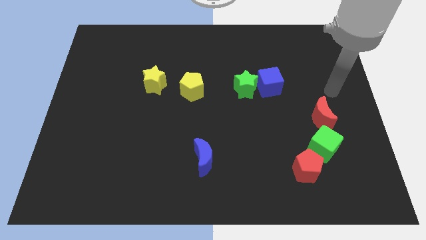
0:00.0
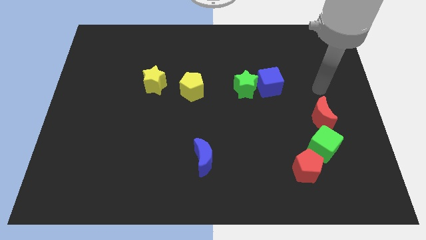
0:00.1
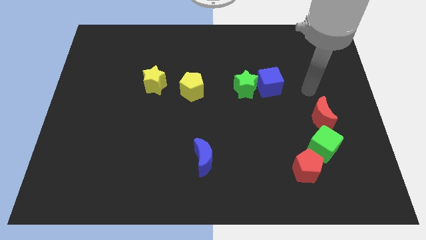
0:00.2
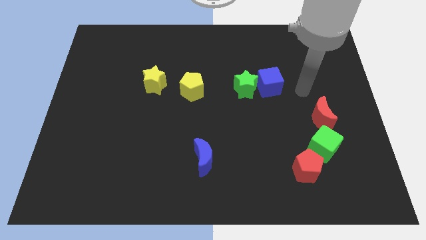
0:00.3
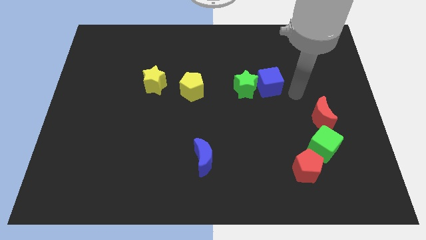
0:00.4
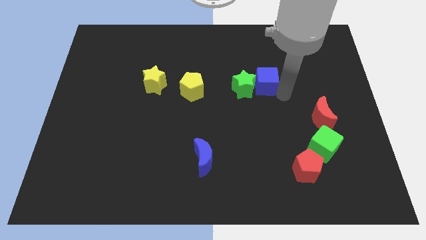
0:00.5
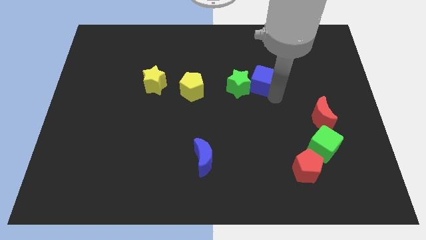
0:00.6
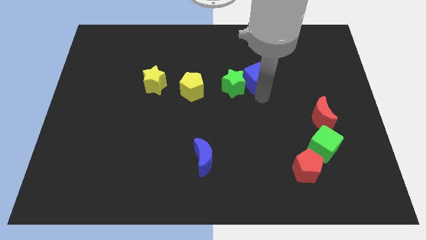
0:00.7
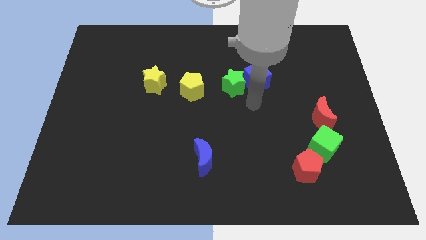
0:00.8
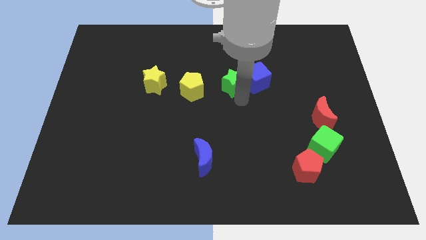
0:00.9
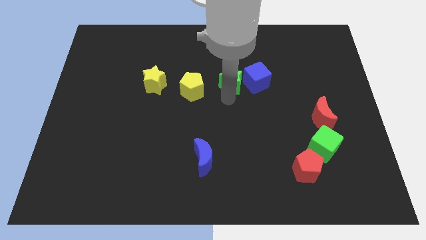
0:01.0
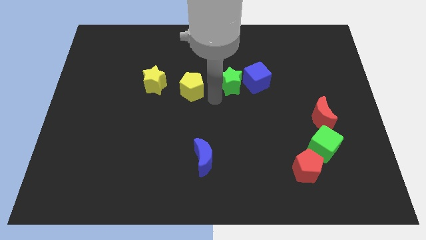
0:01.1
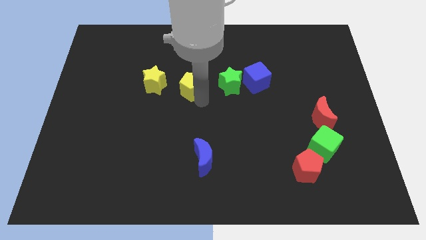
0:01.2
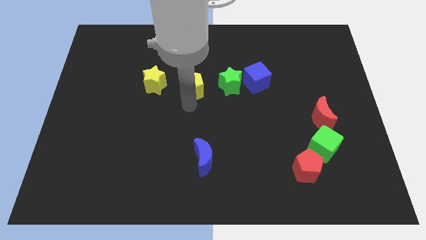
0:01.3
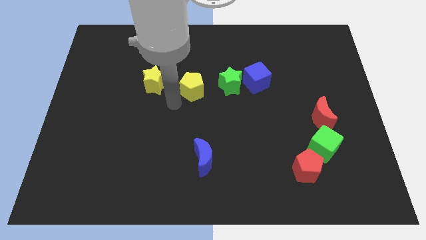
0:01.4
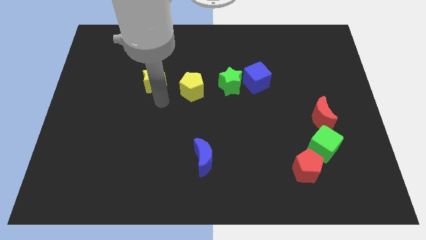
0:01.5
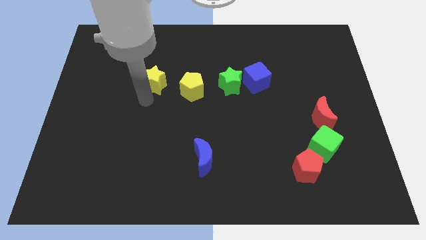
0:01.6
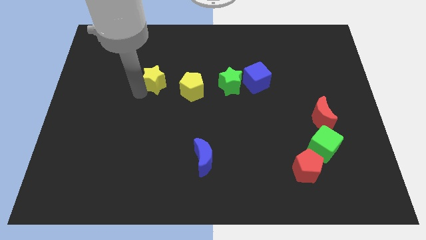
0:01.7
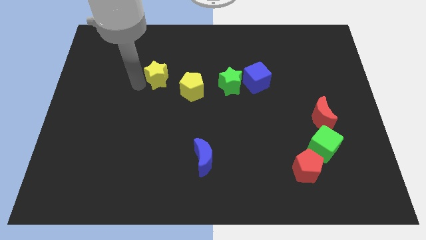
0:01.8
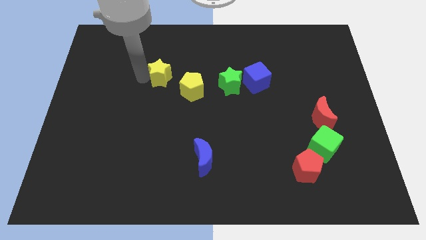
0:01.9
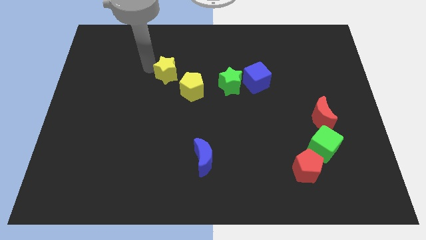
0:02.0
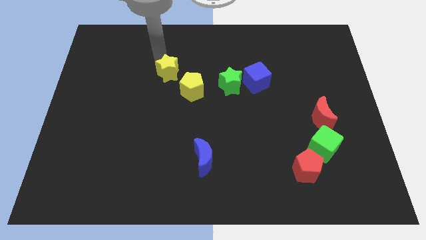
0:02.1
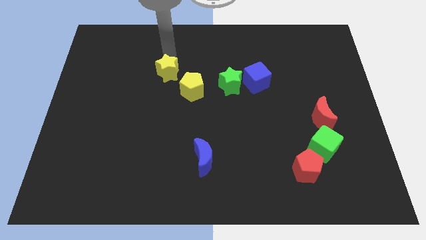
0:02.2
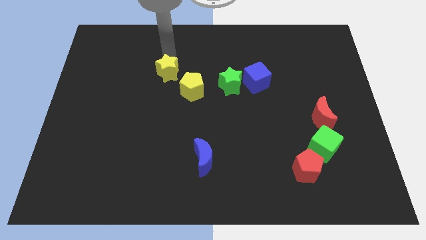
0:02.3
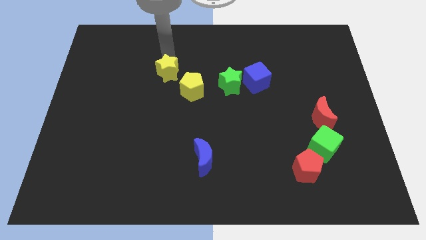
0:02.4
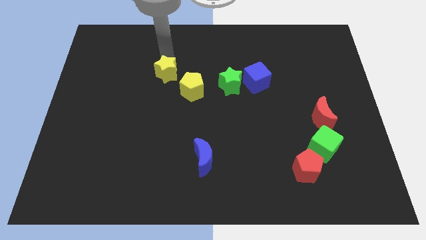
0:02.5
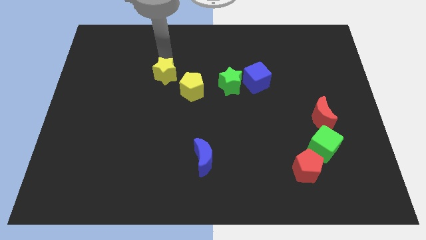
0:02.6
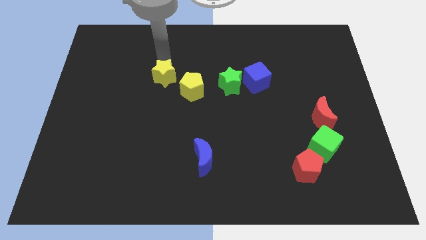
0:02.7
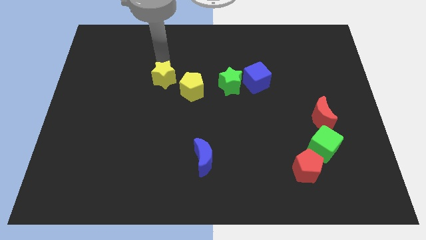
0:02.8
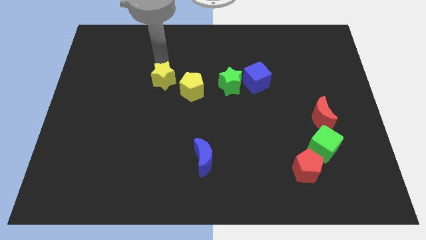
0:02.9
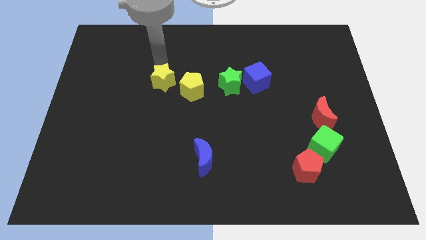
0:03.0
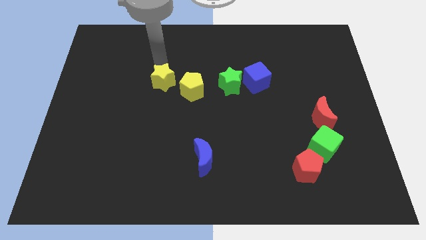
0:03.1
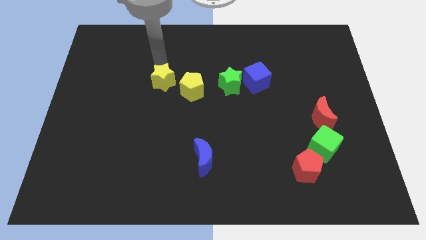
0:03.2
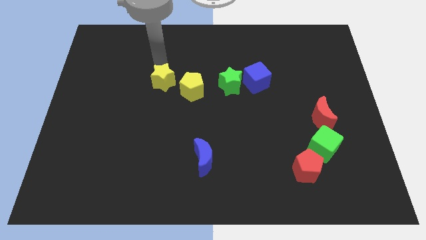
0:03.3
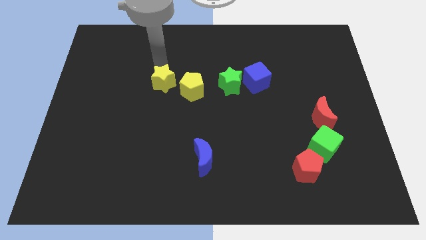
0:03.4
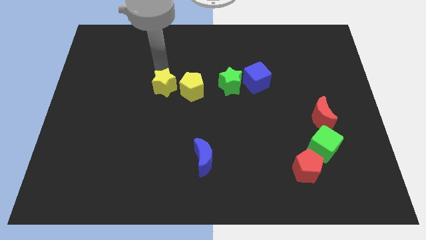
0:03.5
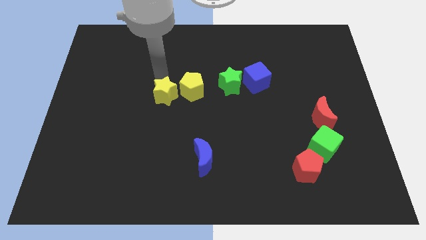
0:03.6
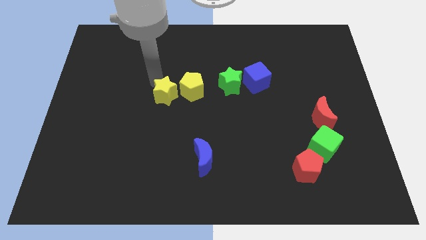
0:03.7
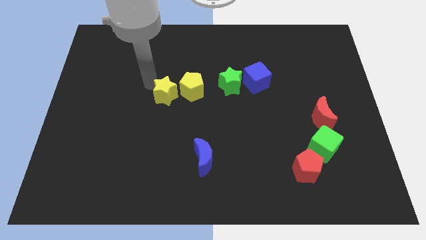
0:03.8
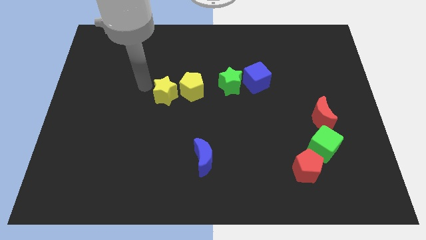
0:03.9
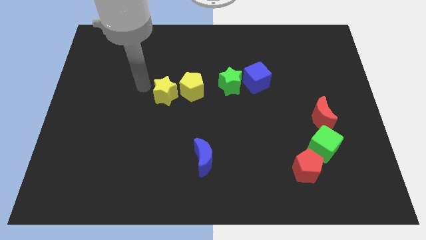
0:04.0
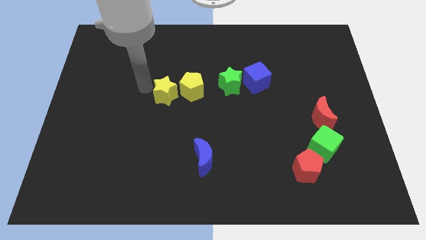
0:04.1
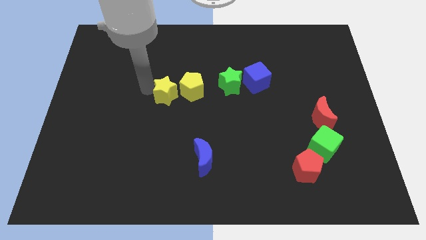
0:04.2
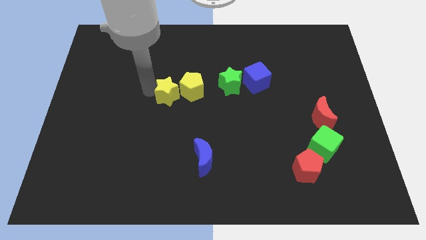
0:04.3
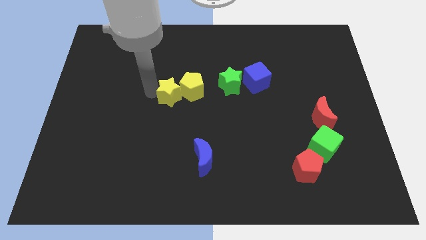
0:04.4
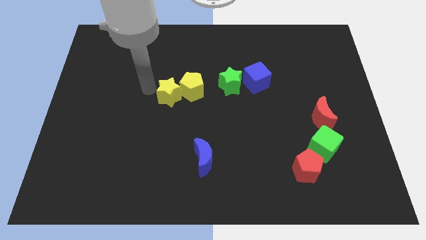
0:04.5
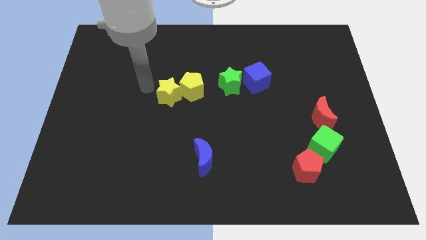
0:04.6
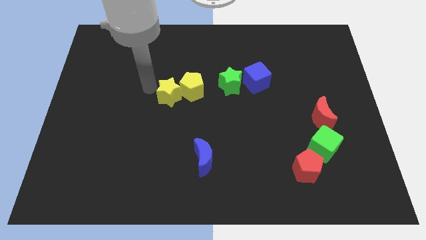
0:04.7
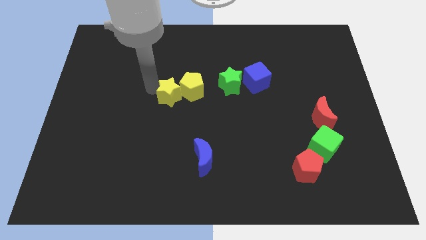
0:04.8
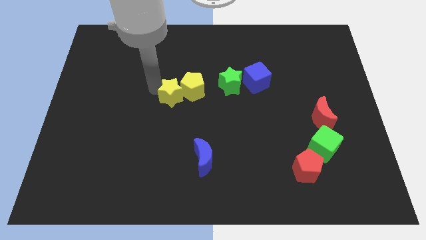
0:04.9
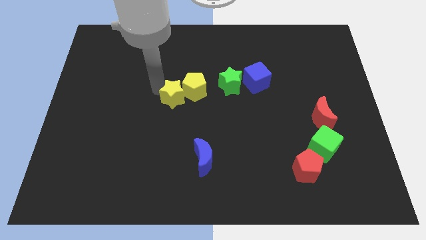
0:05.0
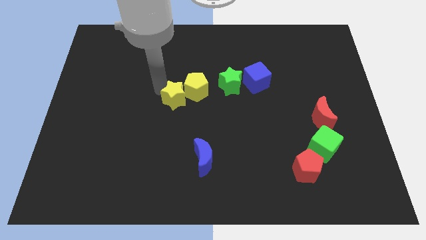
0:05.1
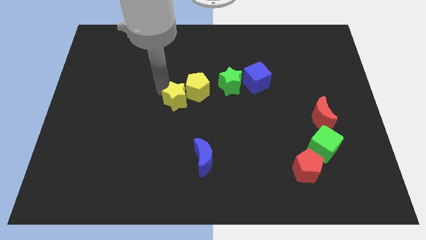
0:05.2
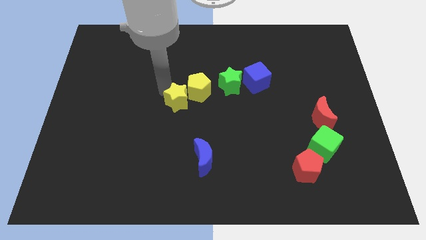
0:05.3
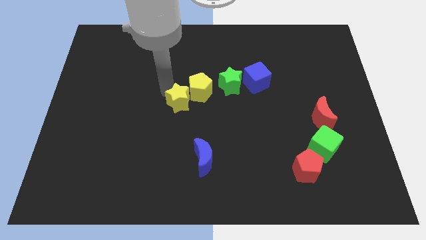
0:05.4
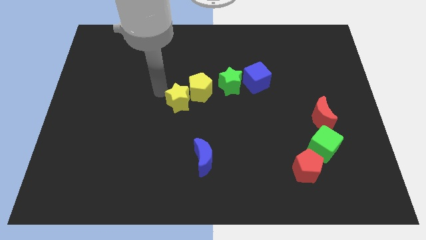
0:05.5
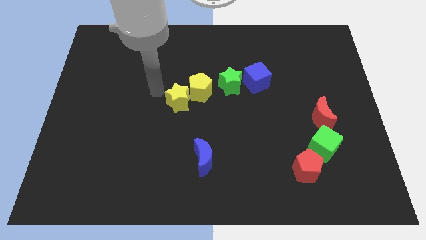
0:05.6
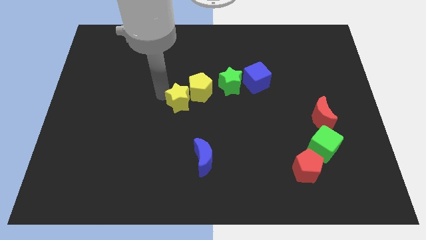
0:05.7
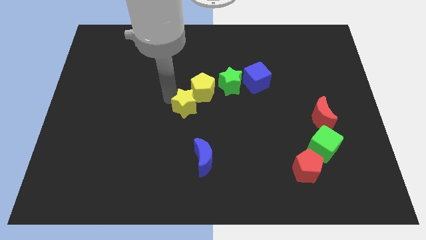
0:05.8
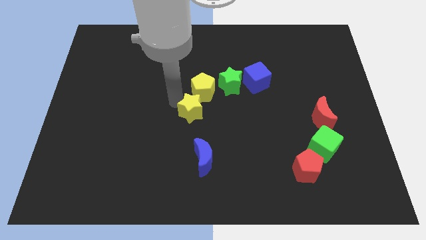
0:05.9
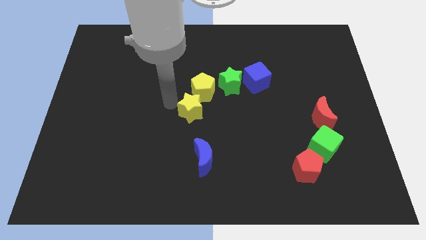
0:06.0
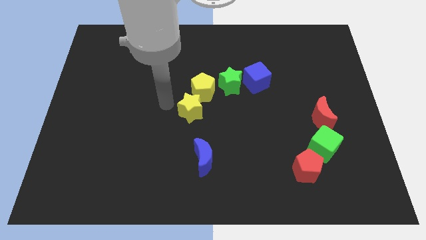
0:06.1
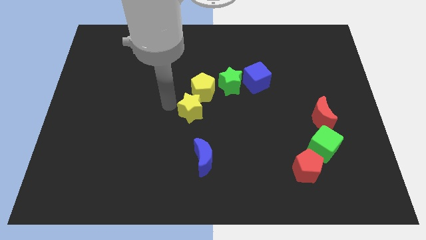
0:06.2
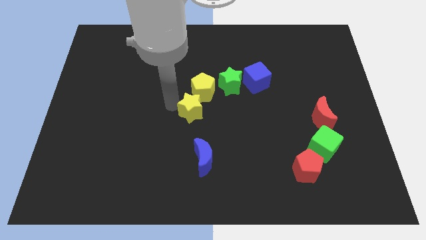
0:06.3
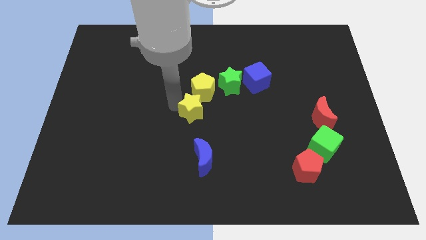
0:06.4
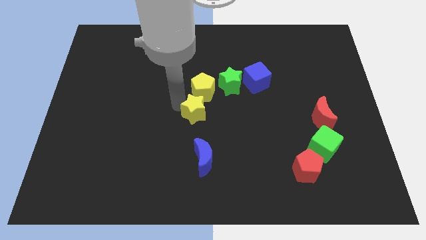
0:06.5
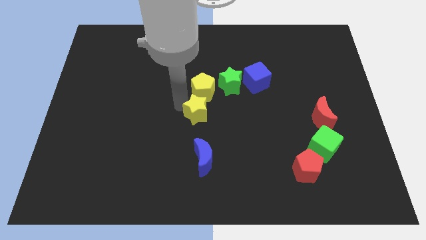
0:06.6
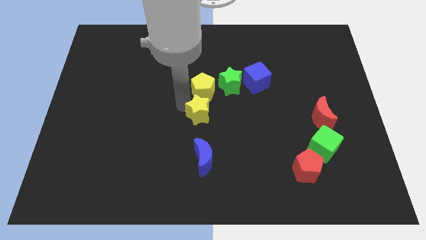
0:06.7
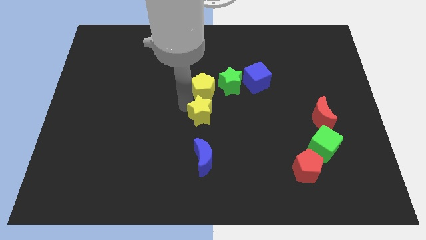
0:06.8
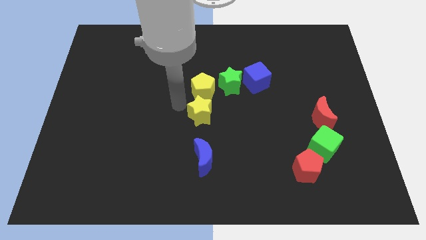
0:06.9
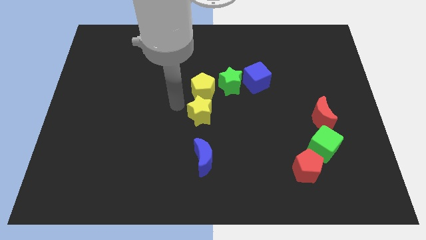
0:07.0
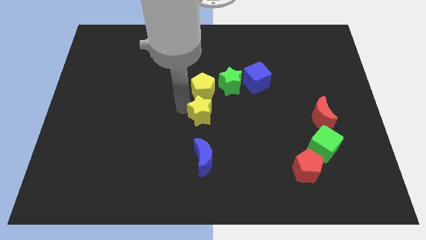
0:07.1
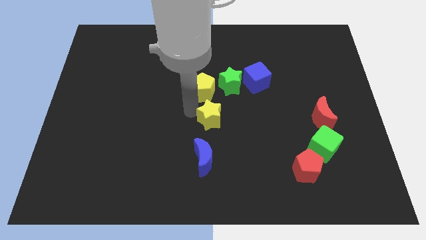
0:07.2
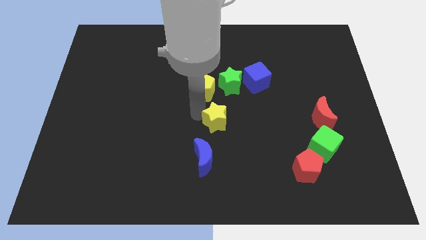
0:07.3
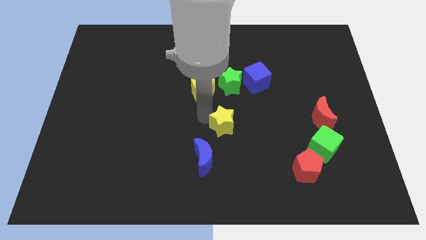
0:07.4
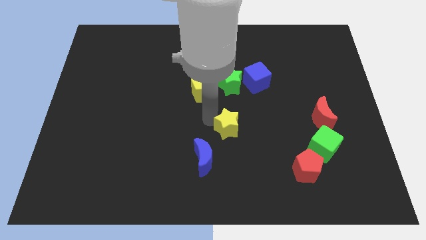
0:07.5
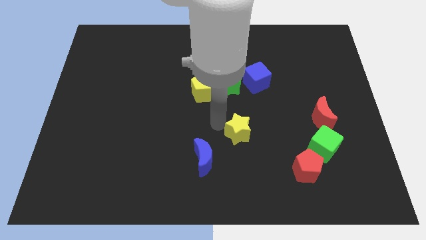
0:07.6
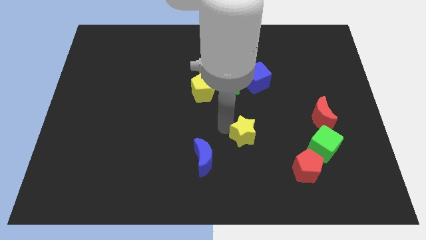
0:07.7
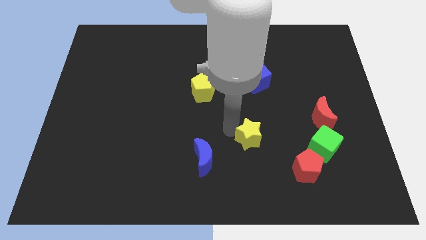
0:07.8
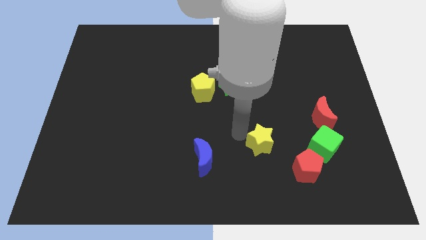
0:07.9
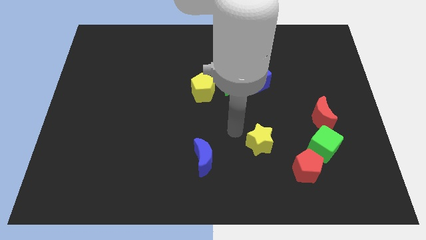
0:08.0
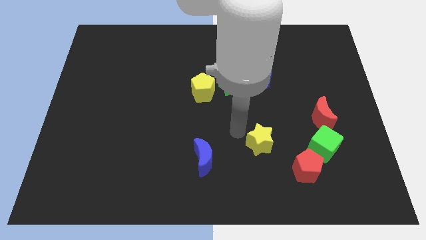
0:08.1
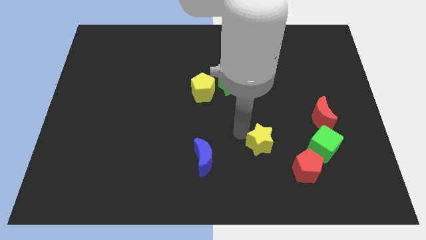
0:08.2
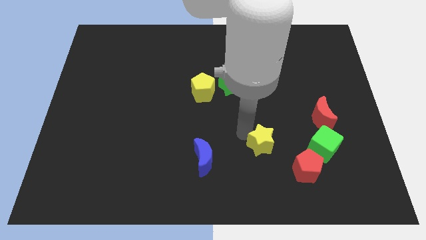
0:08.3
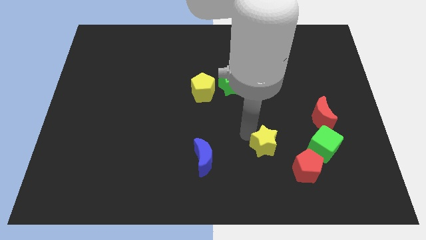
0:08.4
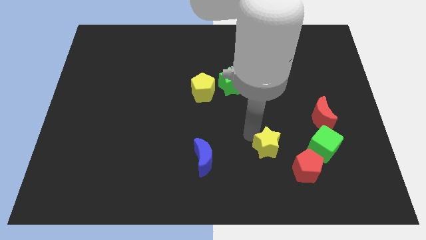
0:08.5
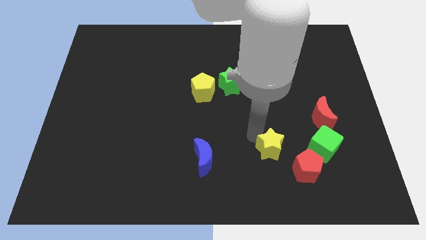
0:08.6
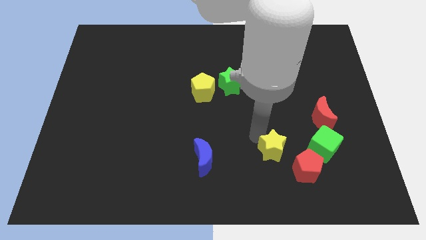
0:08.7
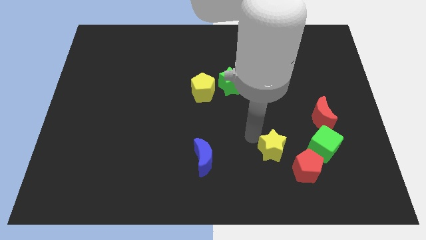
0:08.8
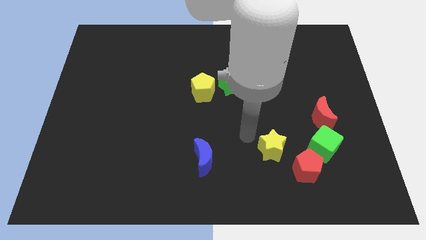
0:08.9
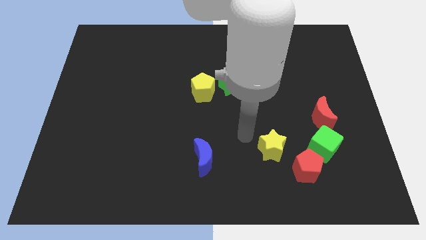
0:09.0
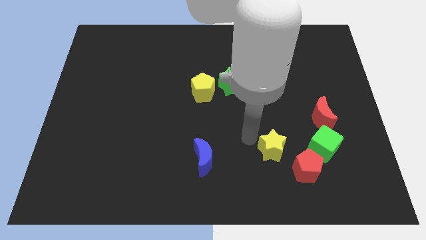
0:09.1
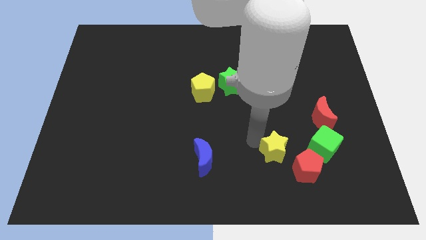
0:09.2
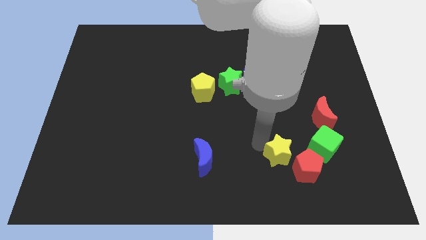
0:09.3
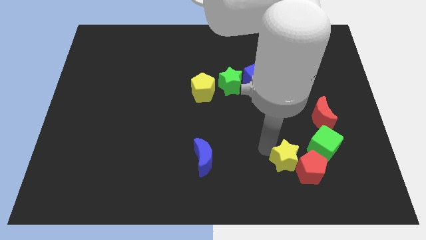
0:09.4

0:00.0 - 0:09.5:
slide the yellow star close to the red pentagon
